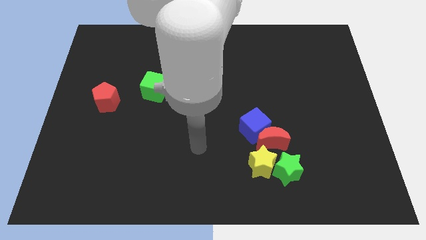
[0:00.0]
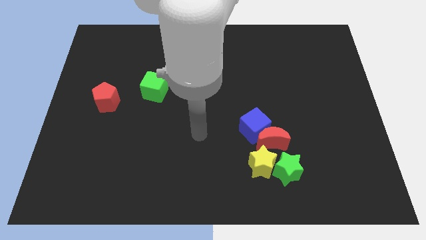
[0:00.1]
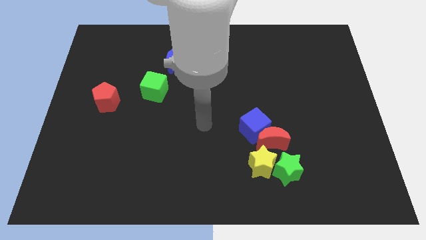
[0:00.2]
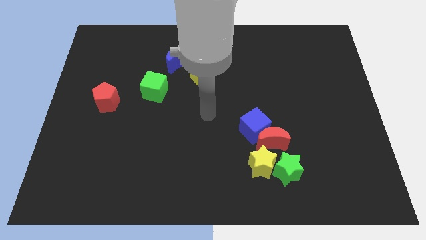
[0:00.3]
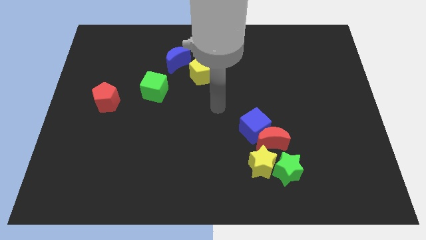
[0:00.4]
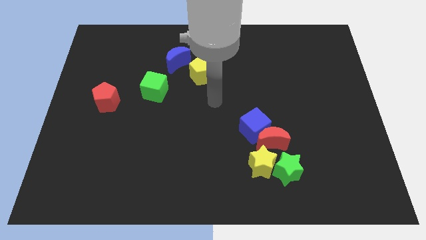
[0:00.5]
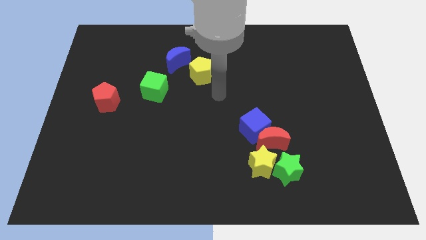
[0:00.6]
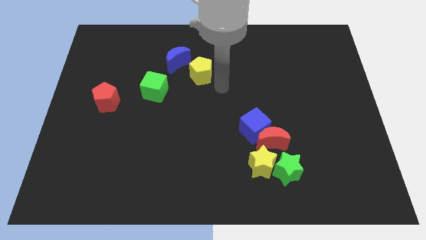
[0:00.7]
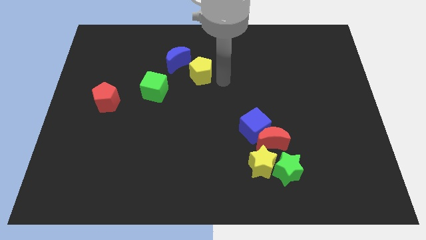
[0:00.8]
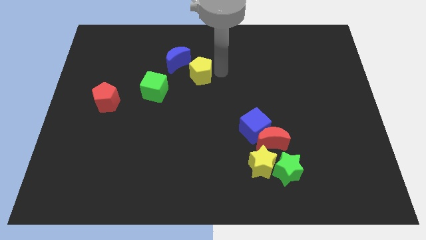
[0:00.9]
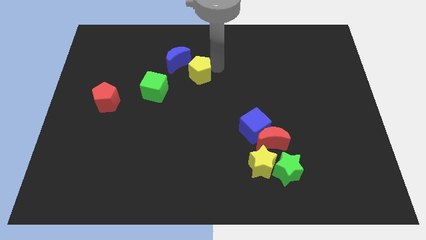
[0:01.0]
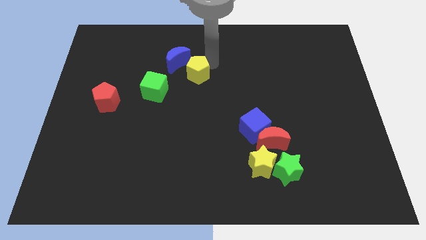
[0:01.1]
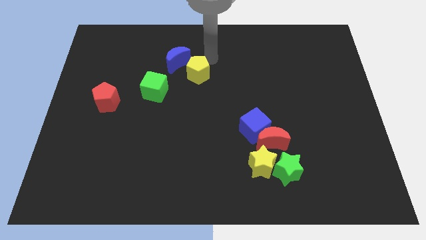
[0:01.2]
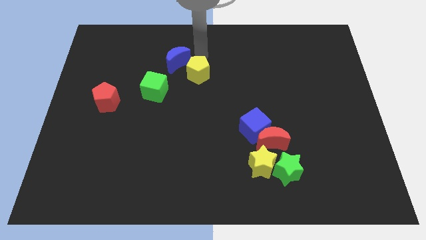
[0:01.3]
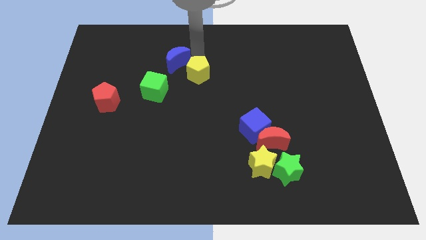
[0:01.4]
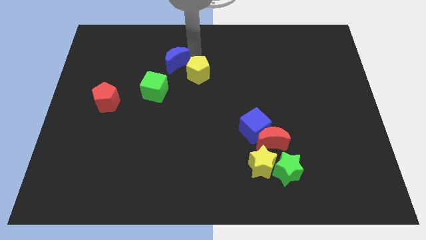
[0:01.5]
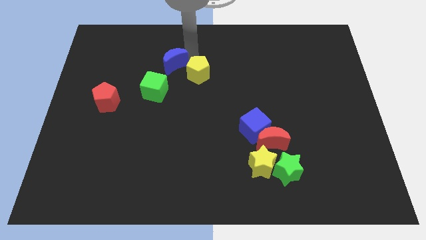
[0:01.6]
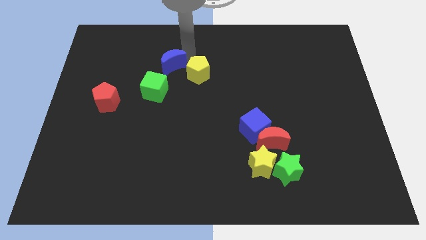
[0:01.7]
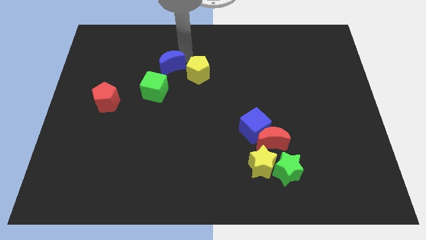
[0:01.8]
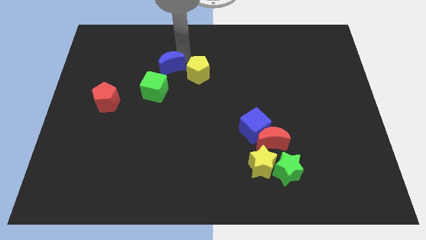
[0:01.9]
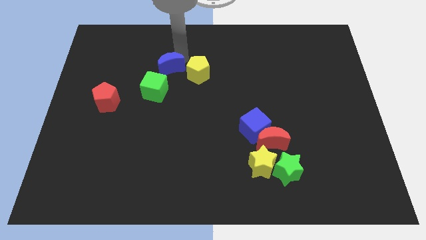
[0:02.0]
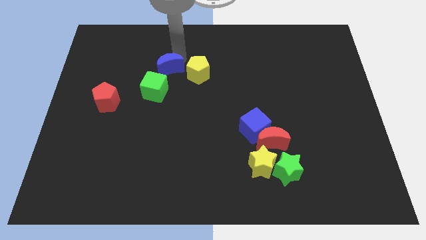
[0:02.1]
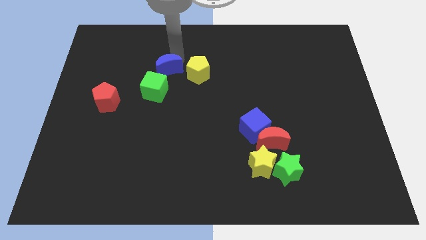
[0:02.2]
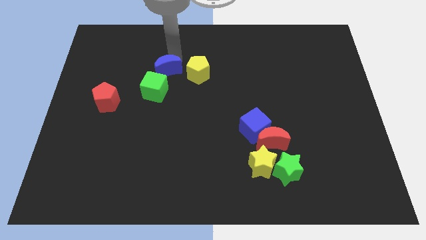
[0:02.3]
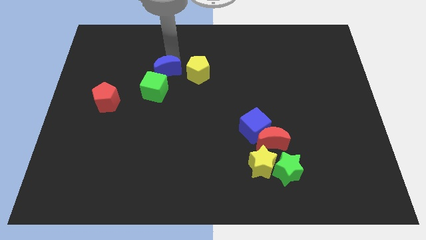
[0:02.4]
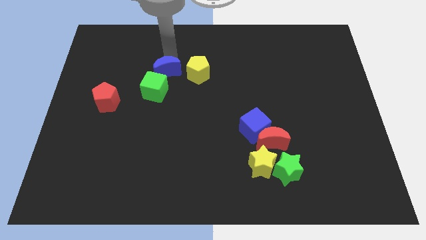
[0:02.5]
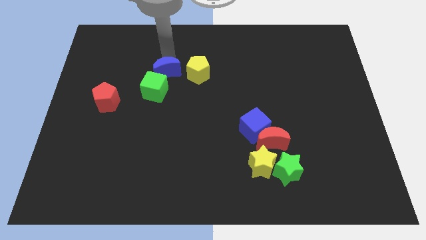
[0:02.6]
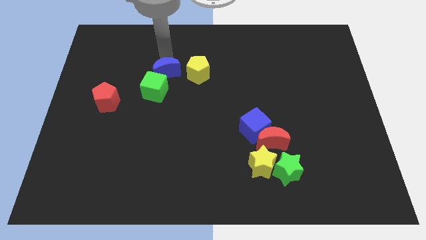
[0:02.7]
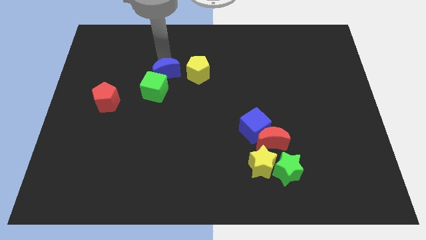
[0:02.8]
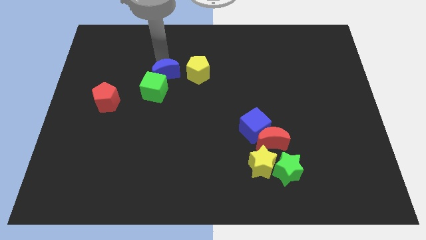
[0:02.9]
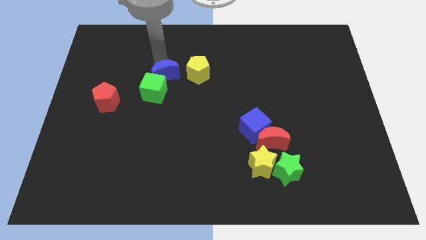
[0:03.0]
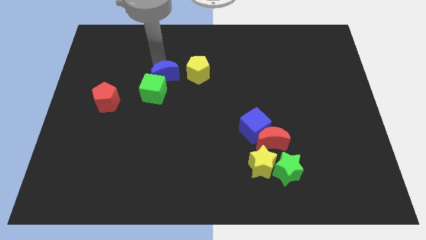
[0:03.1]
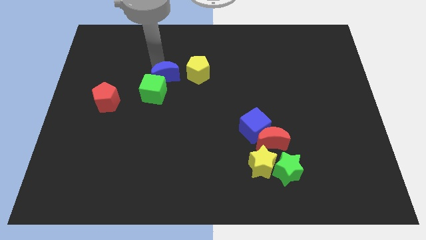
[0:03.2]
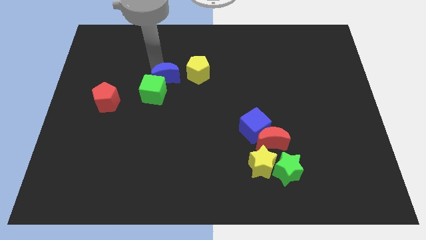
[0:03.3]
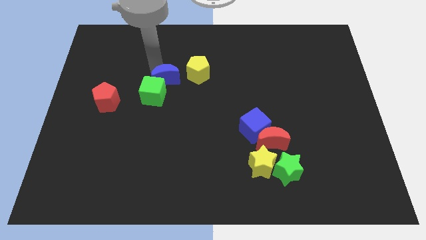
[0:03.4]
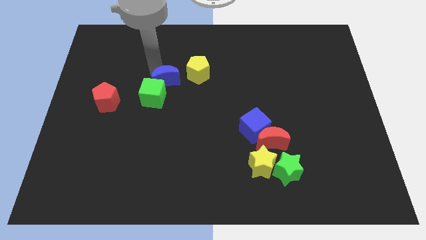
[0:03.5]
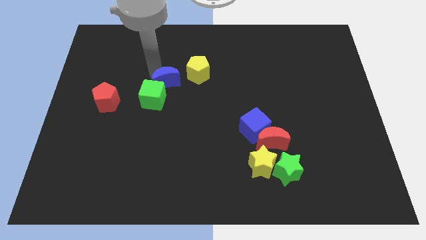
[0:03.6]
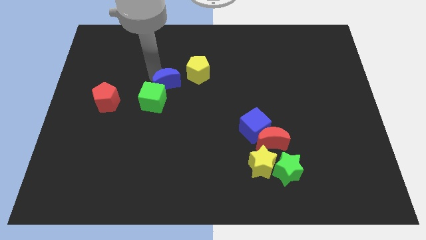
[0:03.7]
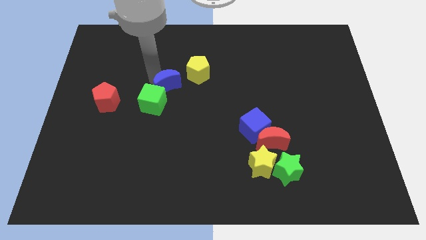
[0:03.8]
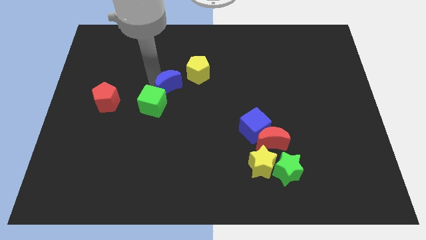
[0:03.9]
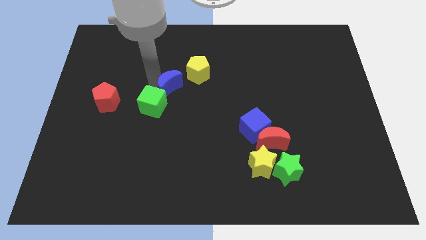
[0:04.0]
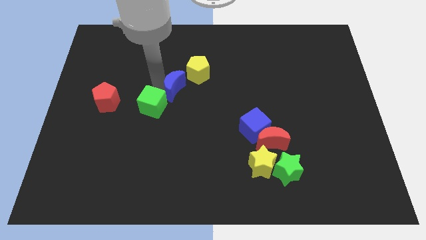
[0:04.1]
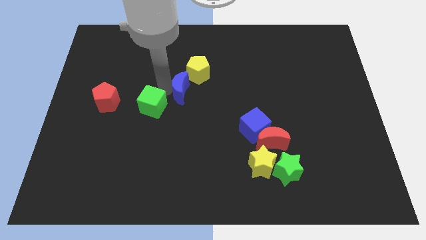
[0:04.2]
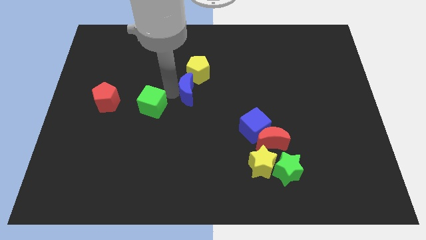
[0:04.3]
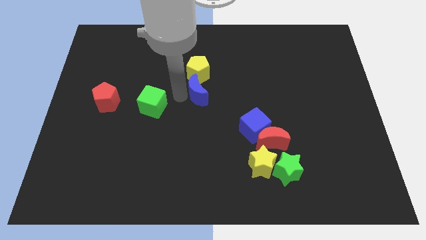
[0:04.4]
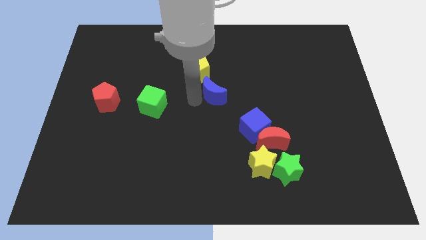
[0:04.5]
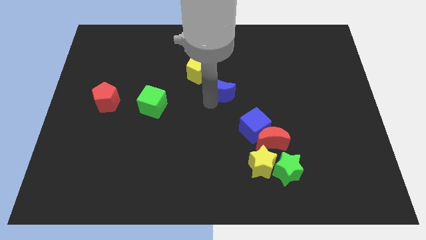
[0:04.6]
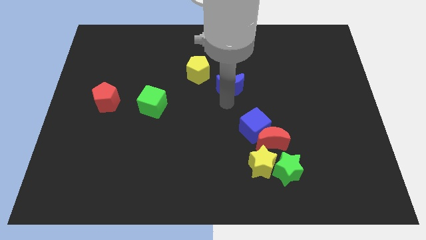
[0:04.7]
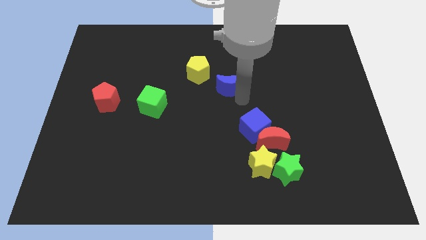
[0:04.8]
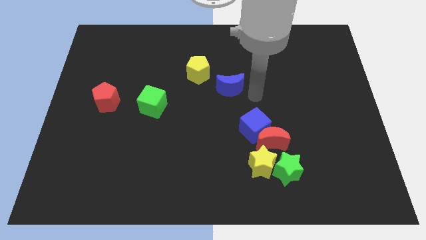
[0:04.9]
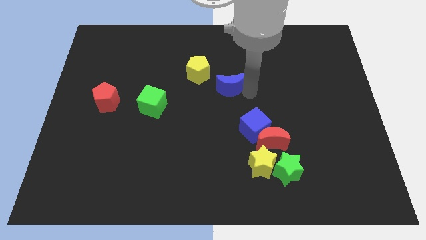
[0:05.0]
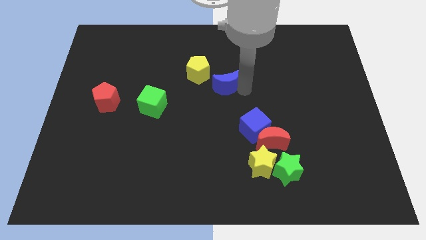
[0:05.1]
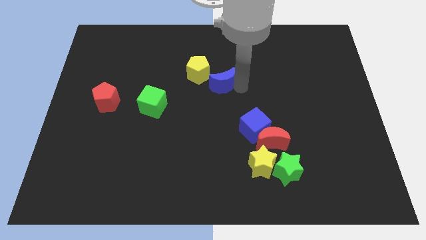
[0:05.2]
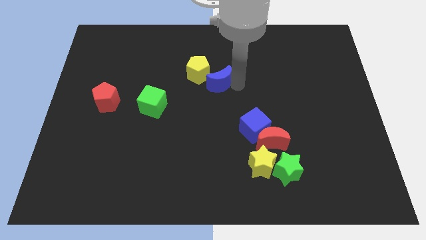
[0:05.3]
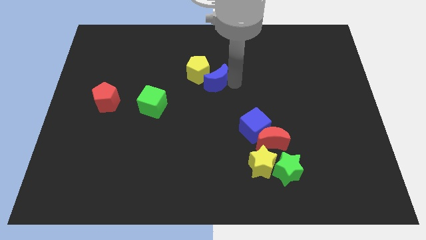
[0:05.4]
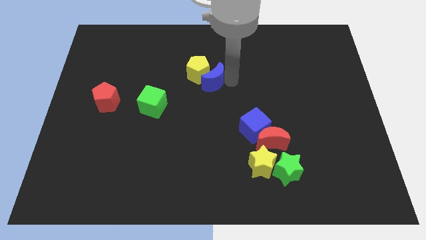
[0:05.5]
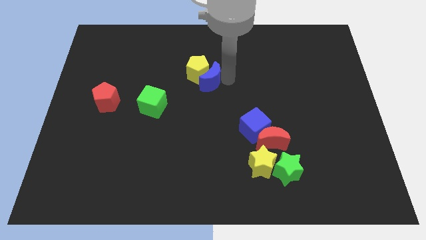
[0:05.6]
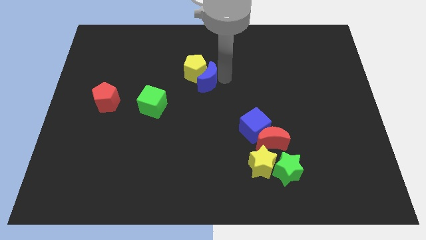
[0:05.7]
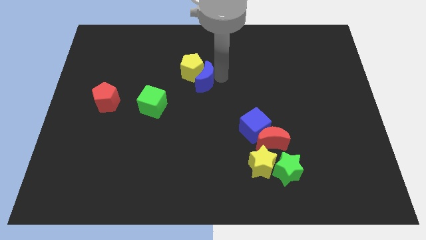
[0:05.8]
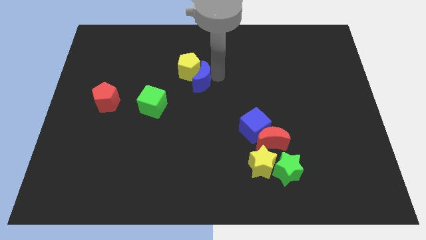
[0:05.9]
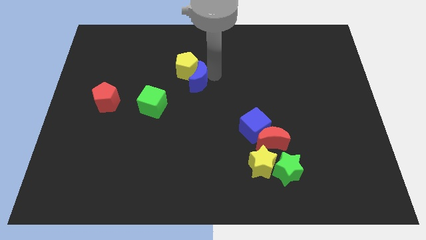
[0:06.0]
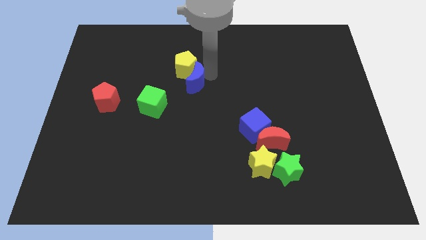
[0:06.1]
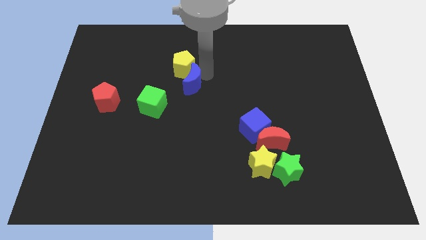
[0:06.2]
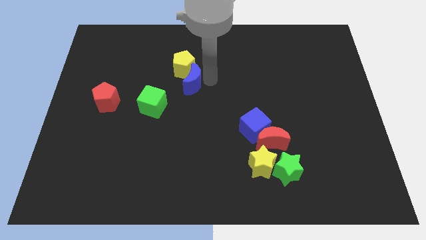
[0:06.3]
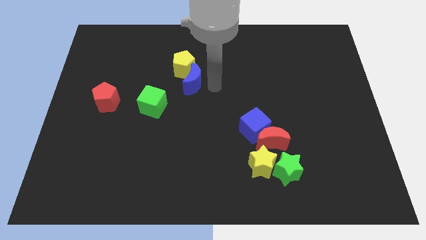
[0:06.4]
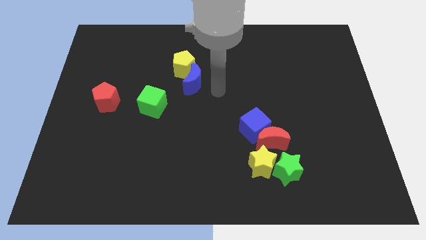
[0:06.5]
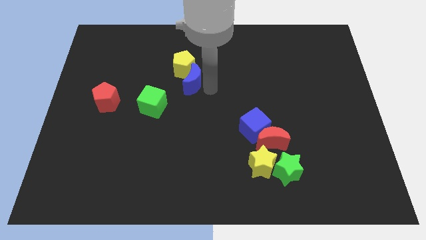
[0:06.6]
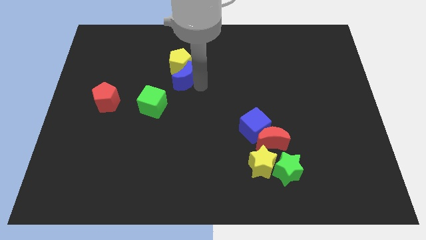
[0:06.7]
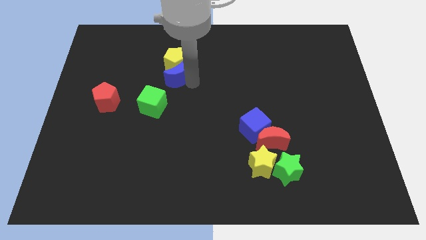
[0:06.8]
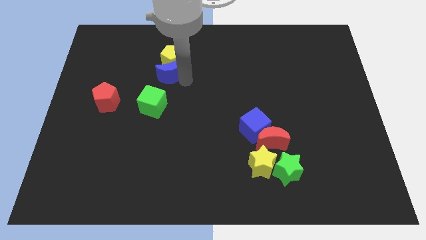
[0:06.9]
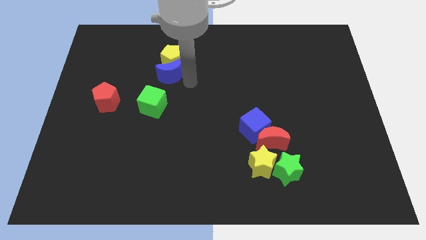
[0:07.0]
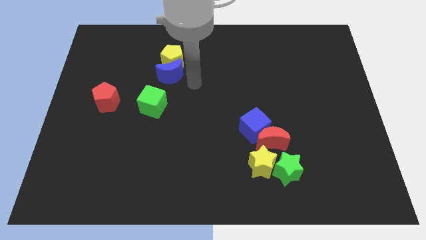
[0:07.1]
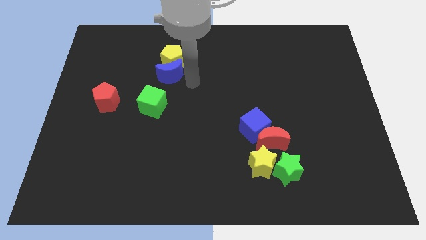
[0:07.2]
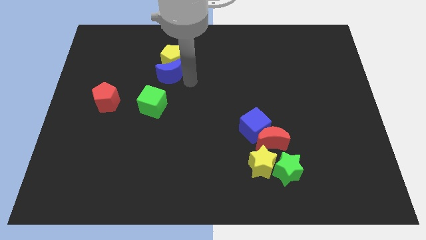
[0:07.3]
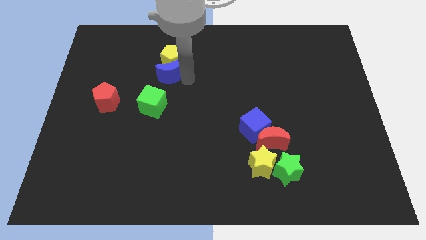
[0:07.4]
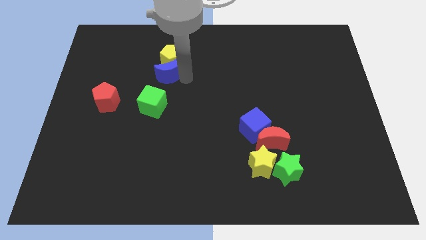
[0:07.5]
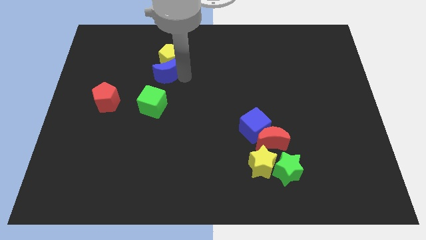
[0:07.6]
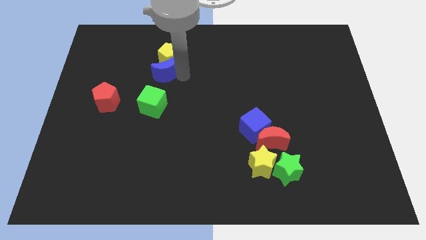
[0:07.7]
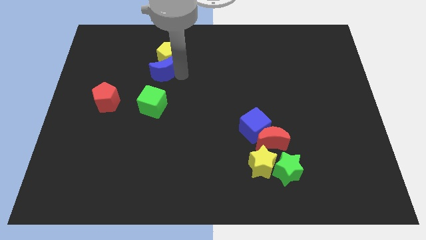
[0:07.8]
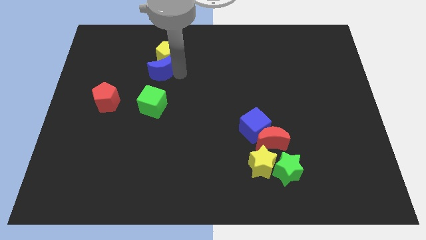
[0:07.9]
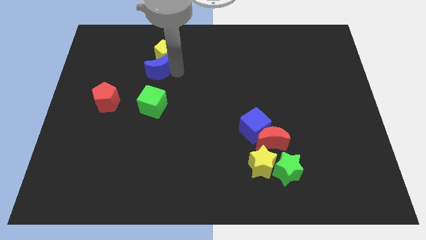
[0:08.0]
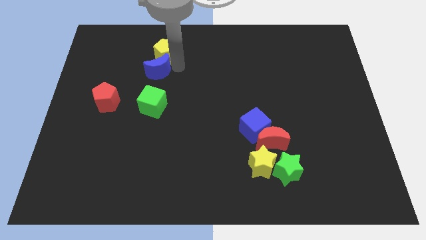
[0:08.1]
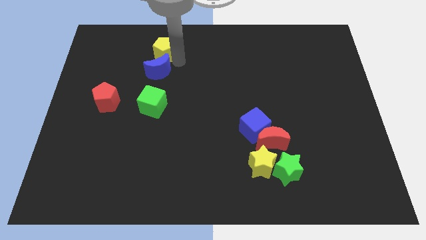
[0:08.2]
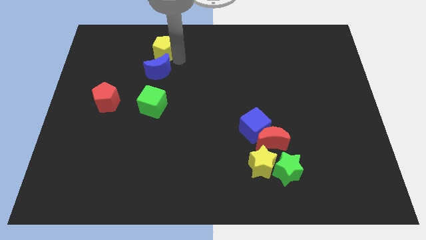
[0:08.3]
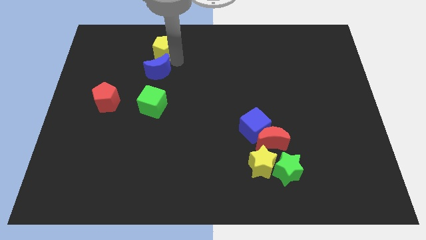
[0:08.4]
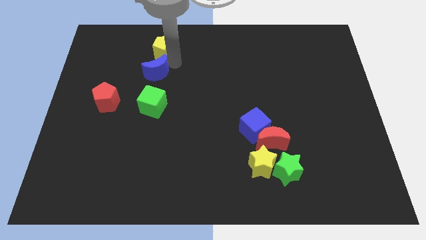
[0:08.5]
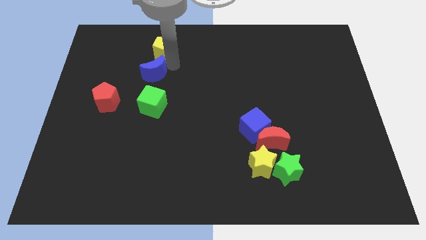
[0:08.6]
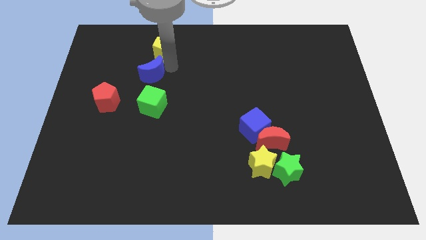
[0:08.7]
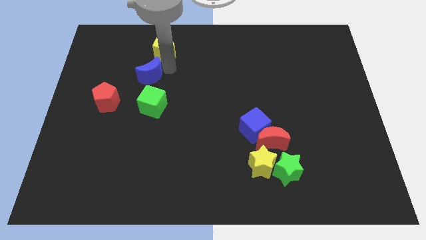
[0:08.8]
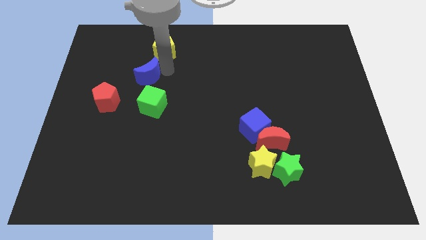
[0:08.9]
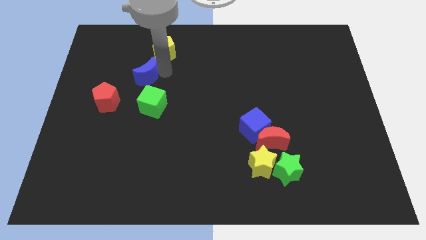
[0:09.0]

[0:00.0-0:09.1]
push the blue moon diagonally up and to the left of the green cube
